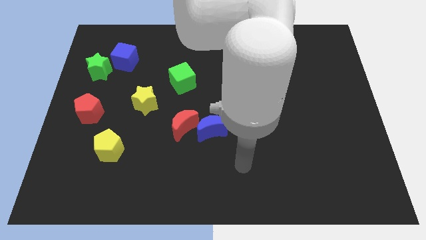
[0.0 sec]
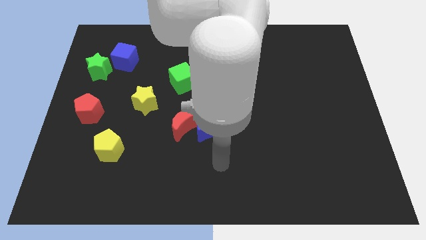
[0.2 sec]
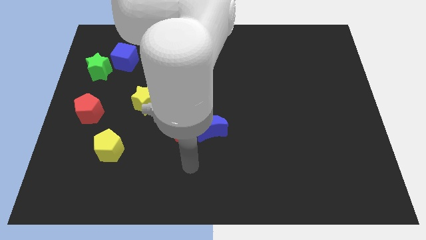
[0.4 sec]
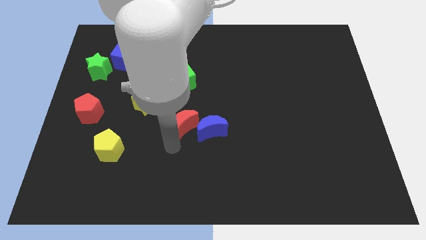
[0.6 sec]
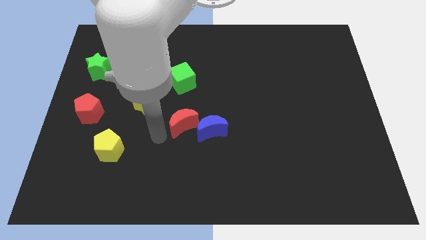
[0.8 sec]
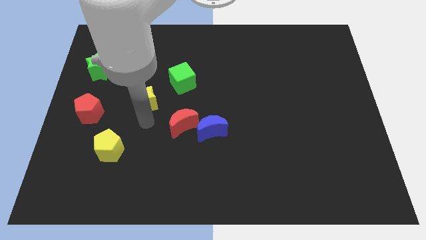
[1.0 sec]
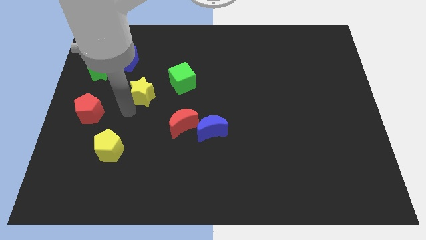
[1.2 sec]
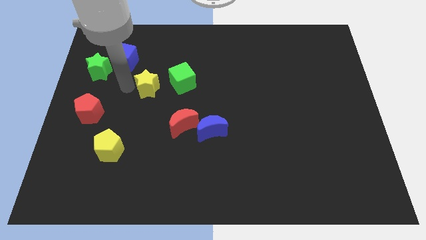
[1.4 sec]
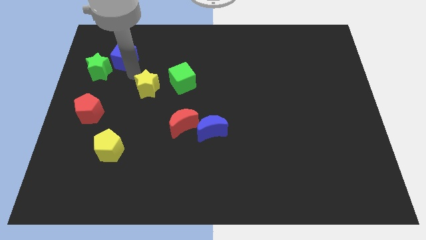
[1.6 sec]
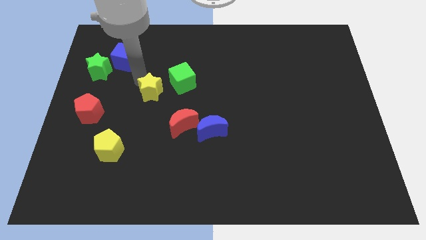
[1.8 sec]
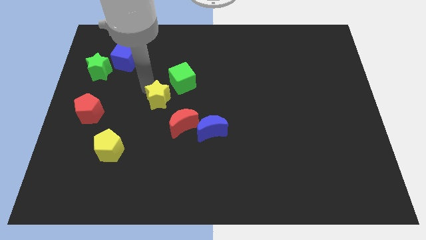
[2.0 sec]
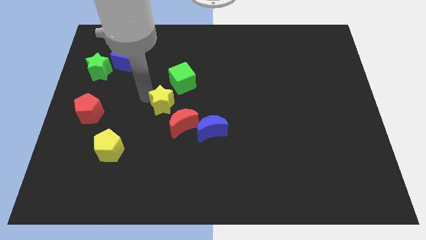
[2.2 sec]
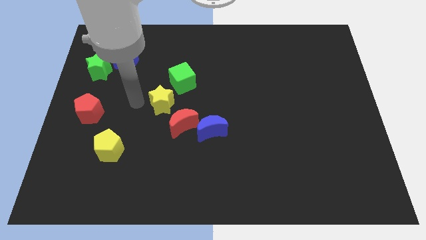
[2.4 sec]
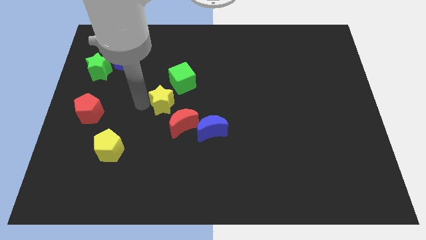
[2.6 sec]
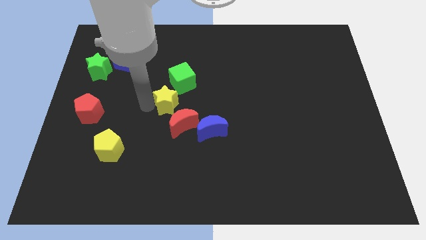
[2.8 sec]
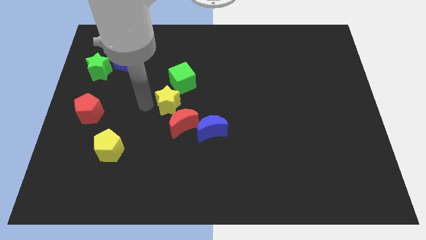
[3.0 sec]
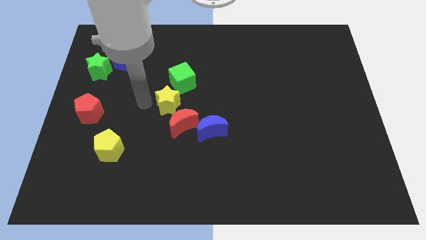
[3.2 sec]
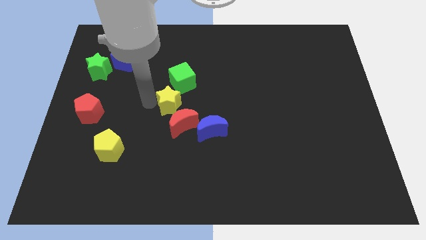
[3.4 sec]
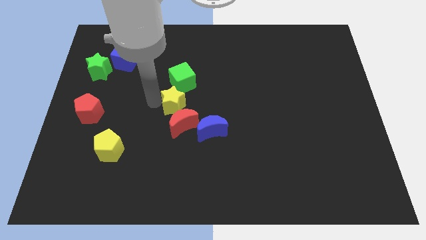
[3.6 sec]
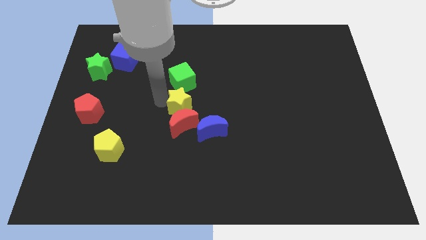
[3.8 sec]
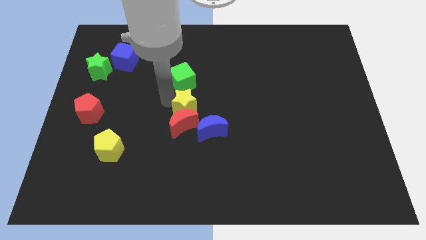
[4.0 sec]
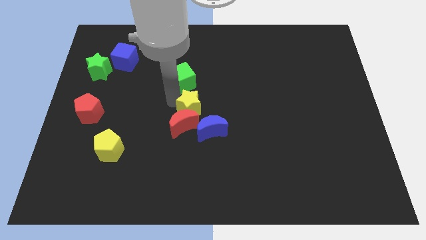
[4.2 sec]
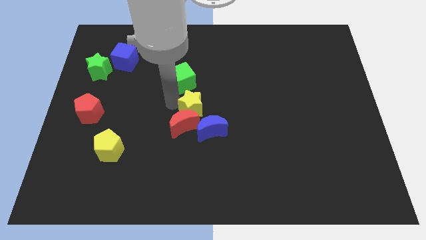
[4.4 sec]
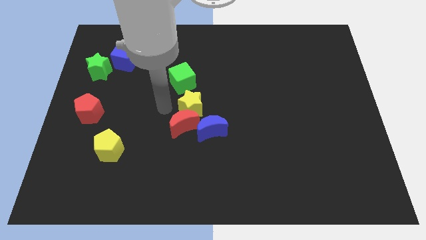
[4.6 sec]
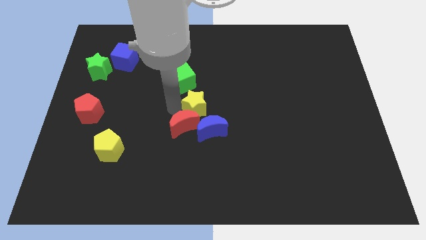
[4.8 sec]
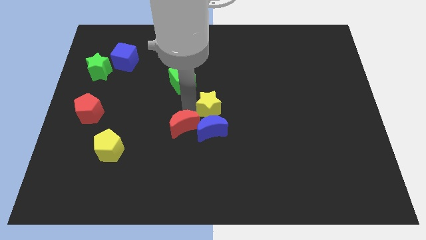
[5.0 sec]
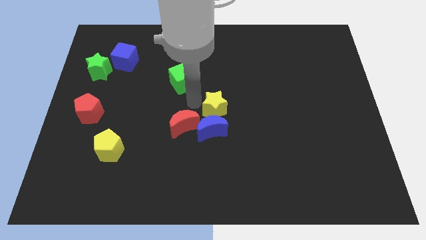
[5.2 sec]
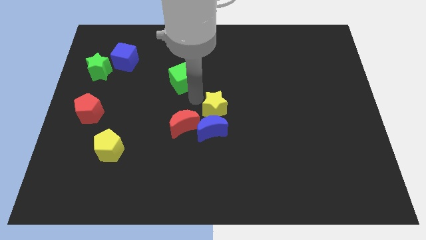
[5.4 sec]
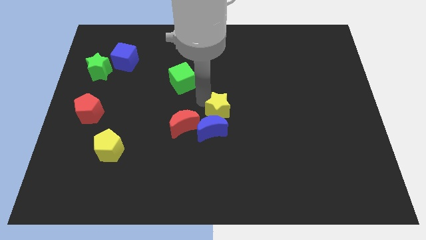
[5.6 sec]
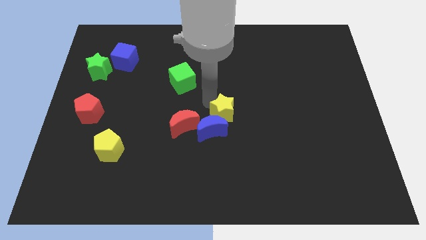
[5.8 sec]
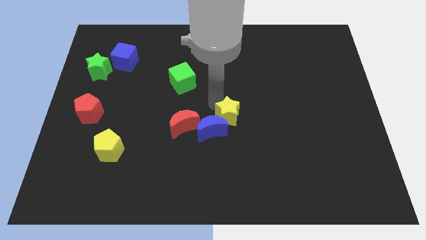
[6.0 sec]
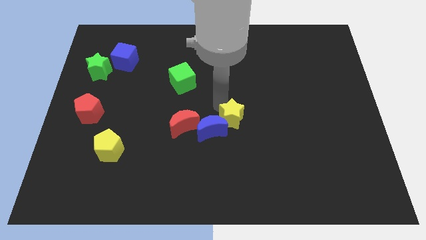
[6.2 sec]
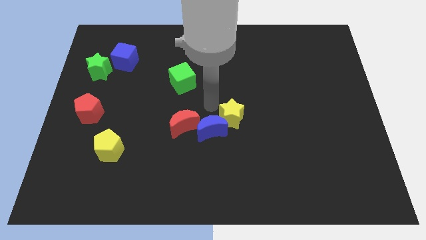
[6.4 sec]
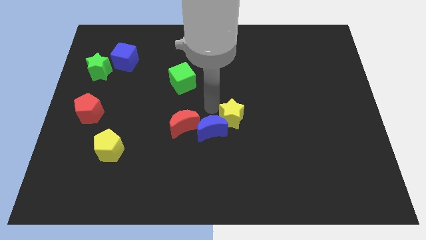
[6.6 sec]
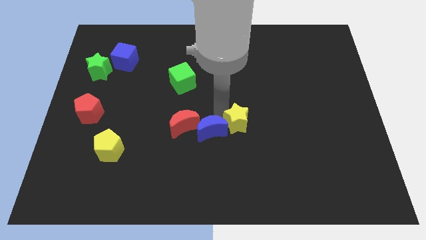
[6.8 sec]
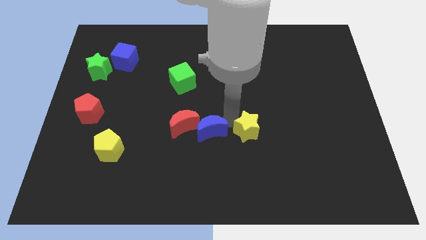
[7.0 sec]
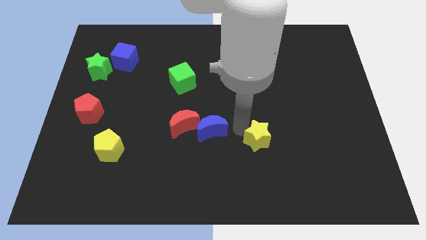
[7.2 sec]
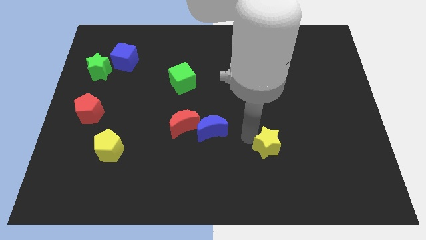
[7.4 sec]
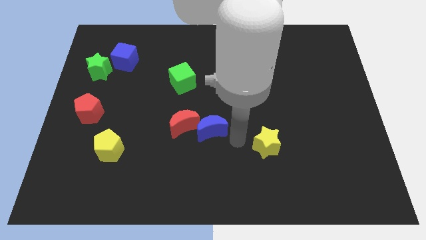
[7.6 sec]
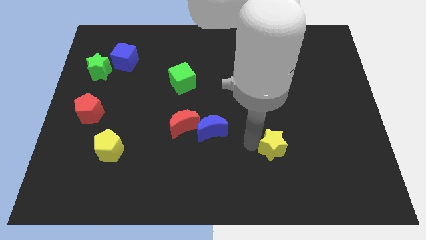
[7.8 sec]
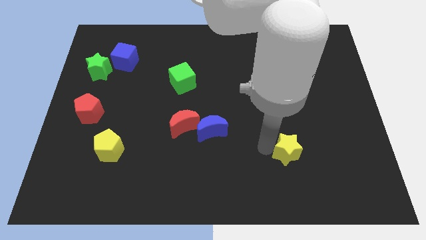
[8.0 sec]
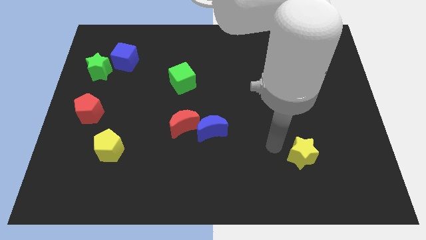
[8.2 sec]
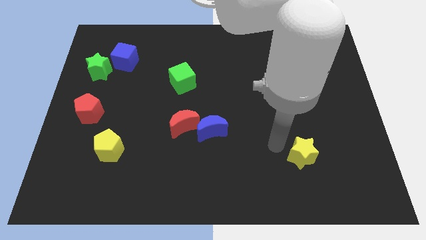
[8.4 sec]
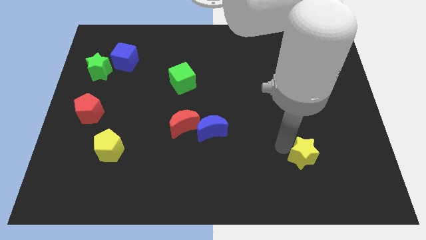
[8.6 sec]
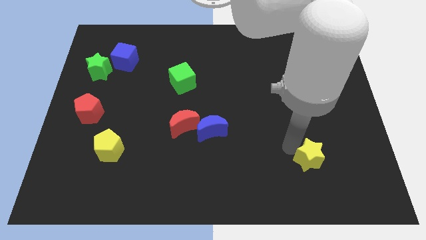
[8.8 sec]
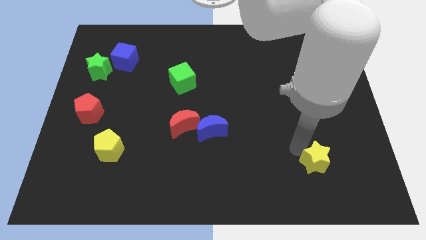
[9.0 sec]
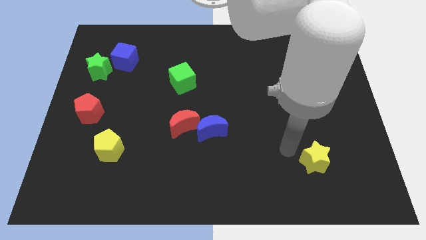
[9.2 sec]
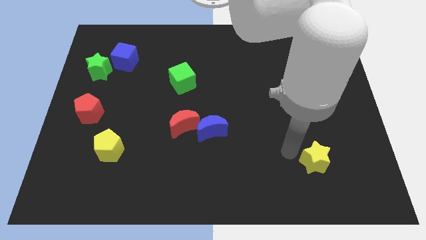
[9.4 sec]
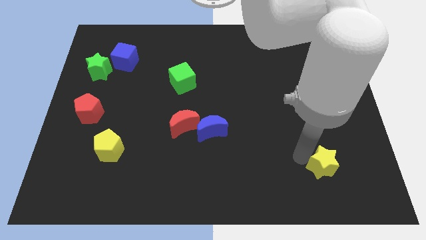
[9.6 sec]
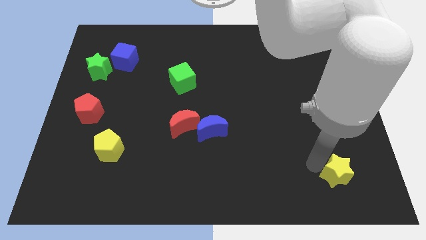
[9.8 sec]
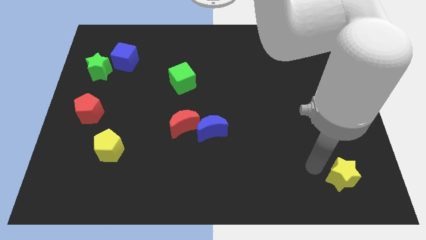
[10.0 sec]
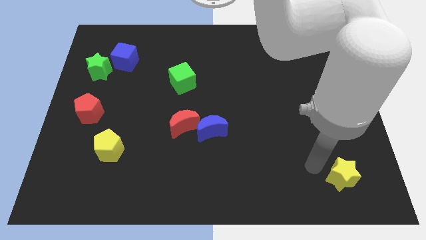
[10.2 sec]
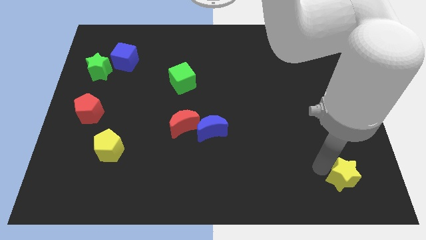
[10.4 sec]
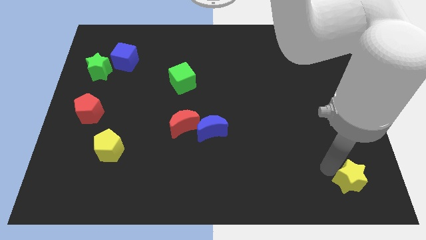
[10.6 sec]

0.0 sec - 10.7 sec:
move the yellow star to the lower right corner

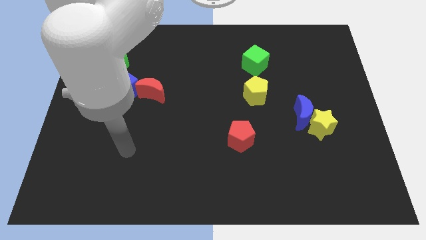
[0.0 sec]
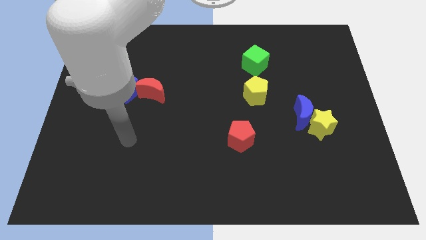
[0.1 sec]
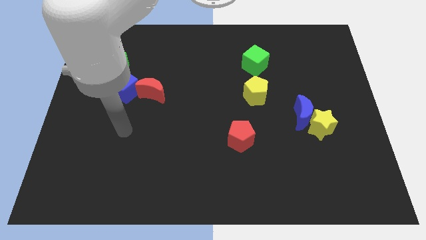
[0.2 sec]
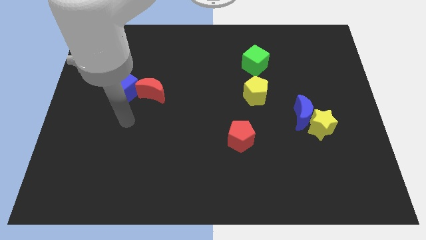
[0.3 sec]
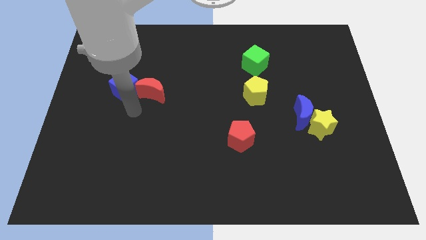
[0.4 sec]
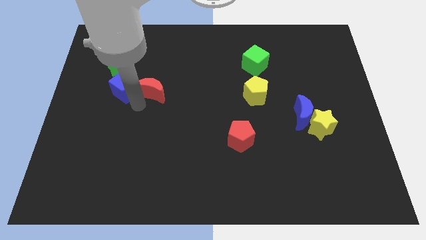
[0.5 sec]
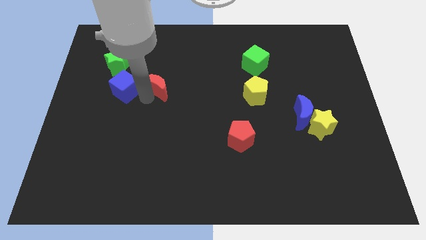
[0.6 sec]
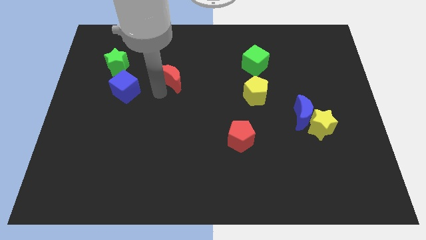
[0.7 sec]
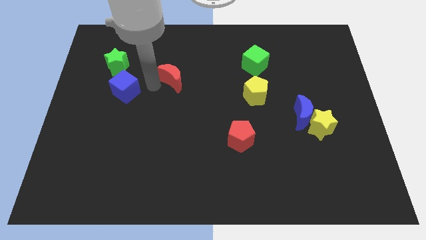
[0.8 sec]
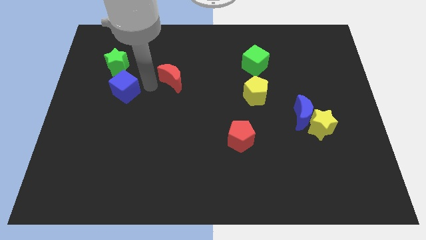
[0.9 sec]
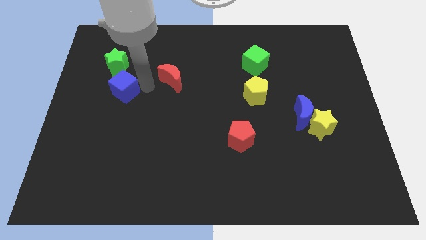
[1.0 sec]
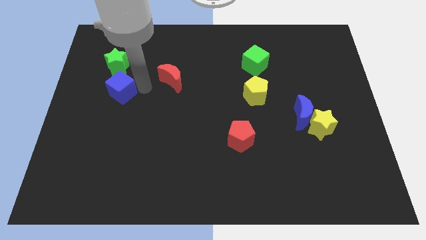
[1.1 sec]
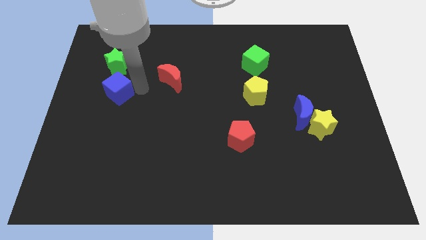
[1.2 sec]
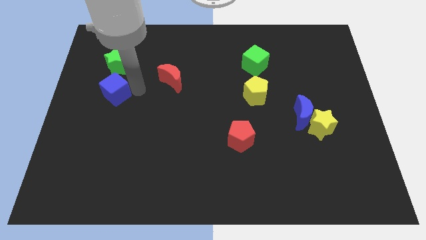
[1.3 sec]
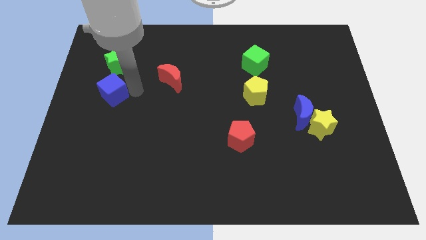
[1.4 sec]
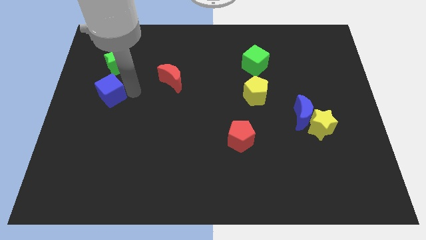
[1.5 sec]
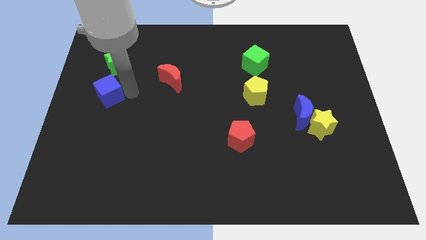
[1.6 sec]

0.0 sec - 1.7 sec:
push the blue cube to the left side of the board
